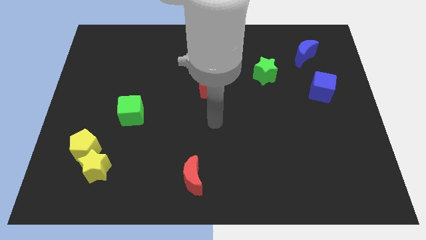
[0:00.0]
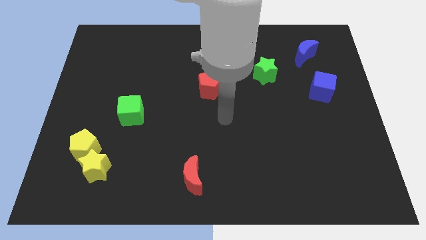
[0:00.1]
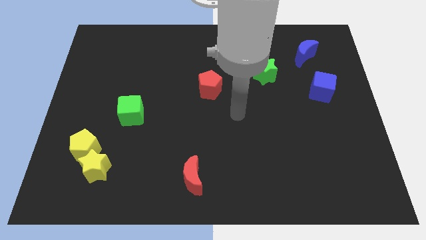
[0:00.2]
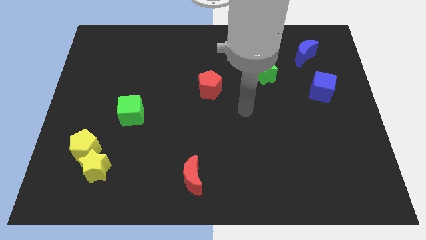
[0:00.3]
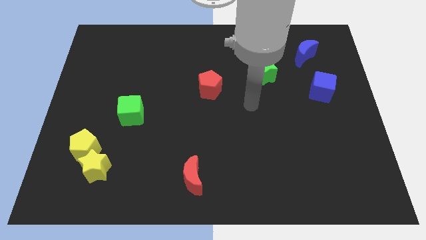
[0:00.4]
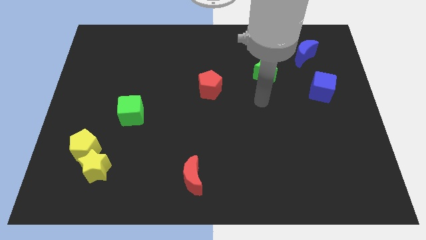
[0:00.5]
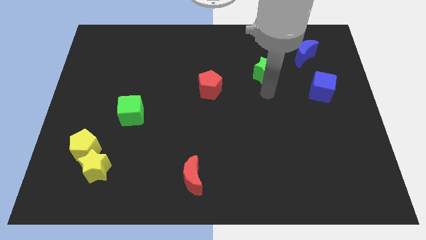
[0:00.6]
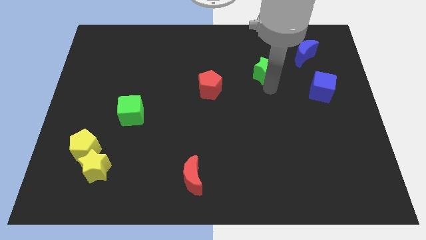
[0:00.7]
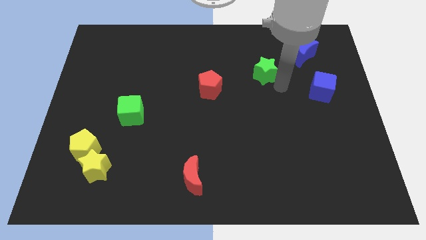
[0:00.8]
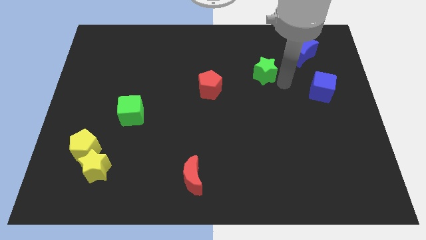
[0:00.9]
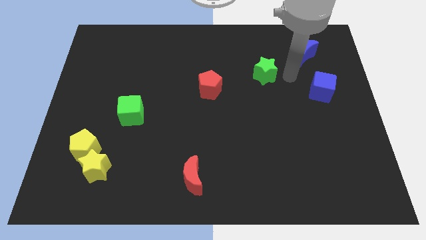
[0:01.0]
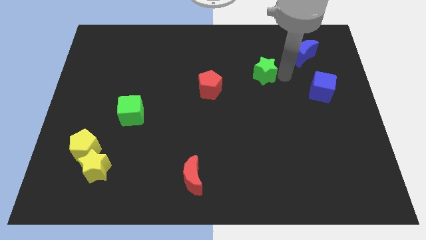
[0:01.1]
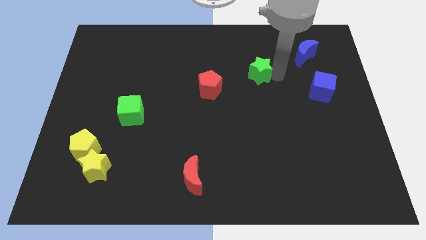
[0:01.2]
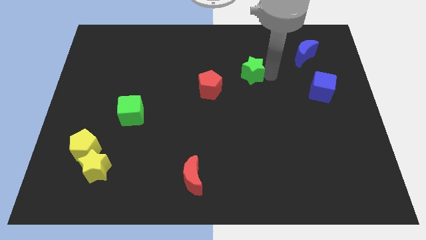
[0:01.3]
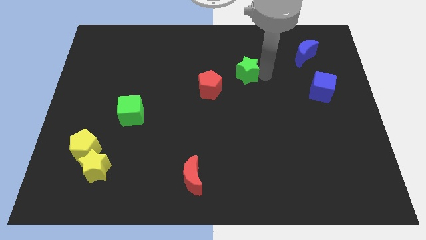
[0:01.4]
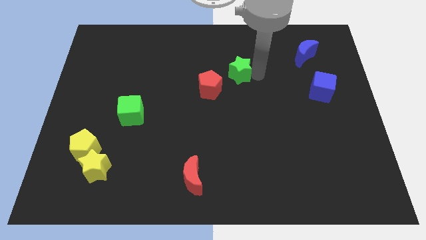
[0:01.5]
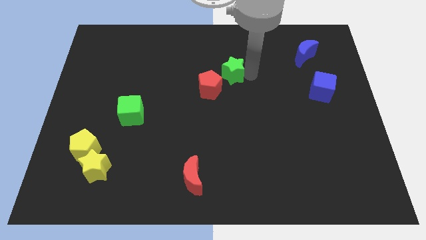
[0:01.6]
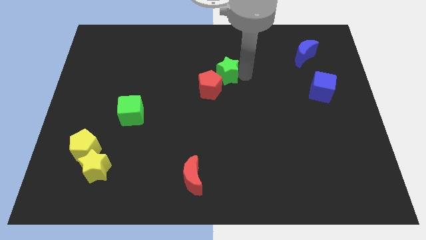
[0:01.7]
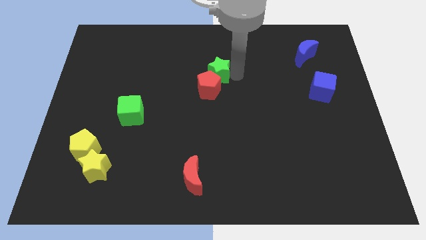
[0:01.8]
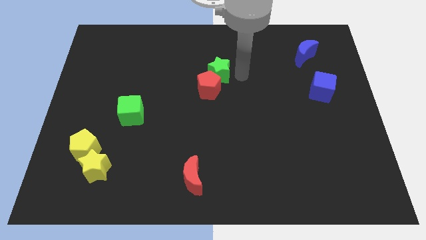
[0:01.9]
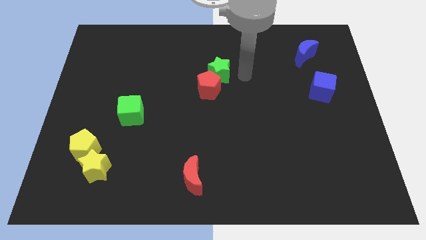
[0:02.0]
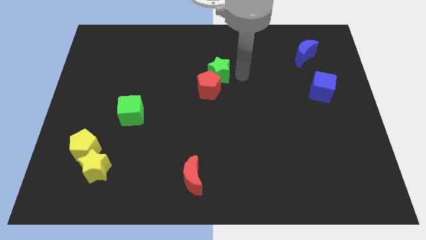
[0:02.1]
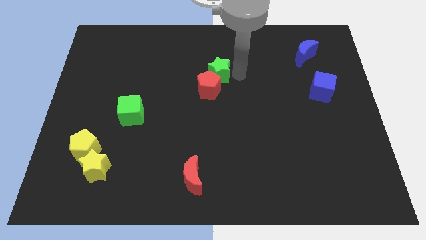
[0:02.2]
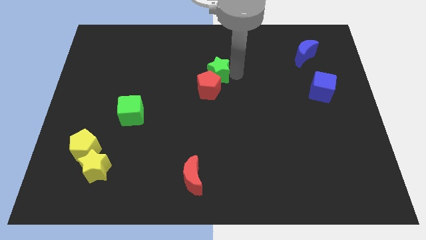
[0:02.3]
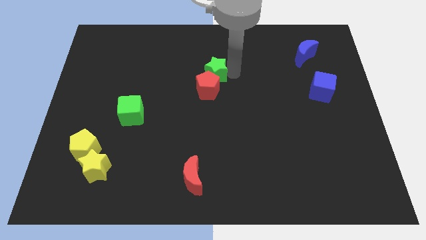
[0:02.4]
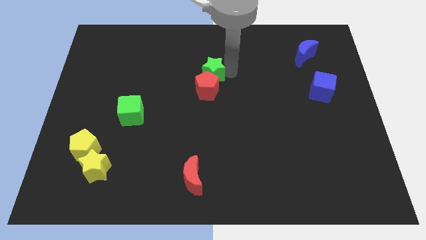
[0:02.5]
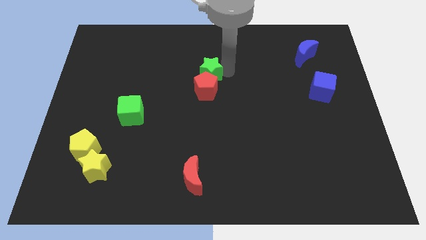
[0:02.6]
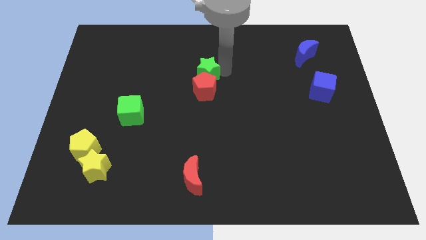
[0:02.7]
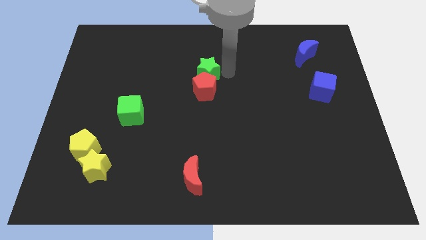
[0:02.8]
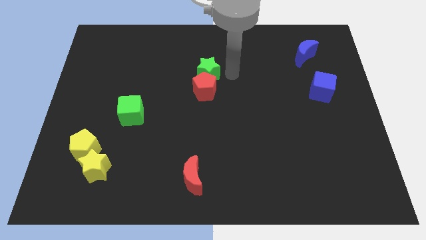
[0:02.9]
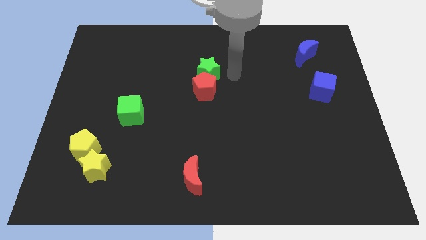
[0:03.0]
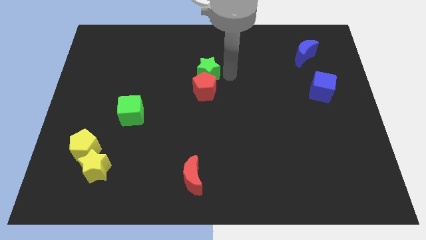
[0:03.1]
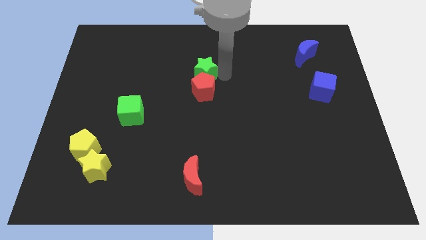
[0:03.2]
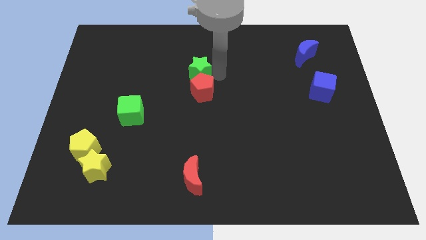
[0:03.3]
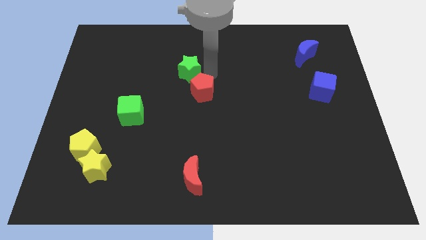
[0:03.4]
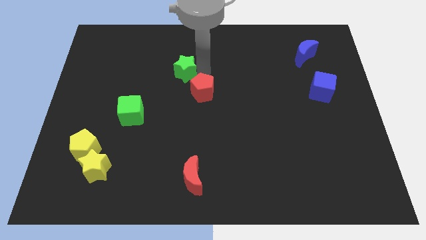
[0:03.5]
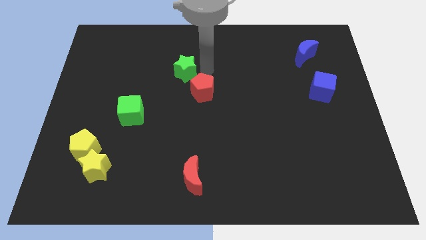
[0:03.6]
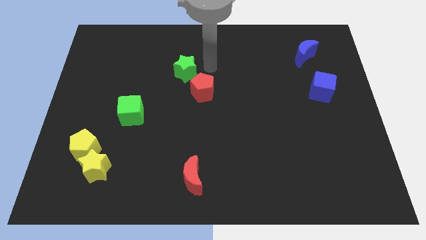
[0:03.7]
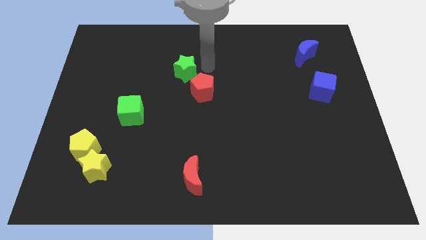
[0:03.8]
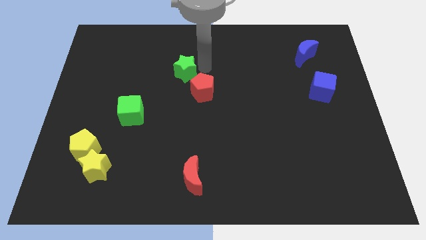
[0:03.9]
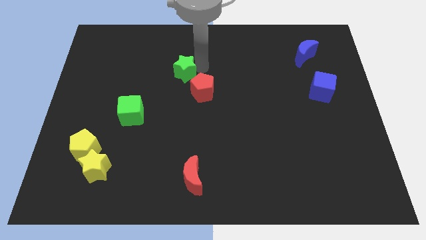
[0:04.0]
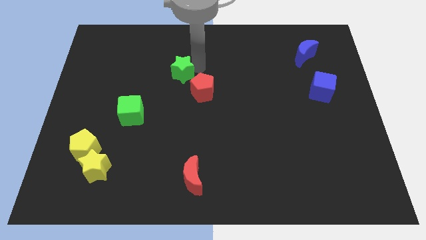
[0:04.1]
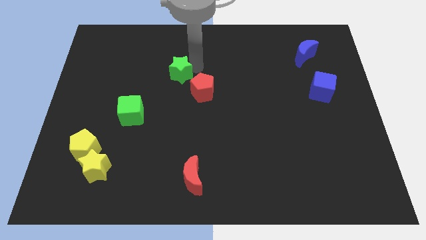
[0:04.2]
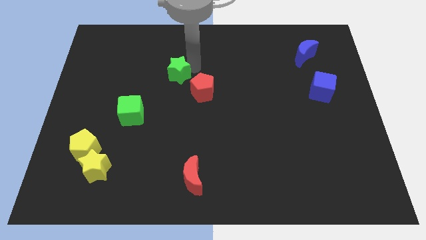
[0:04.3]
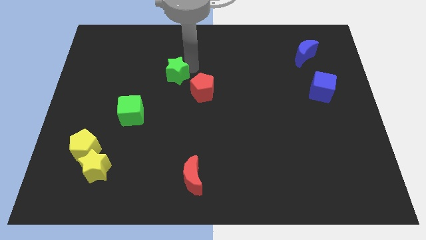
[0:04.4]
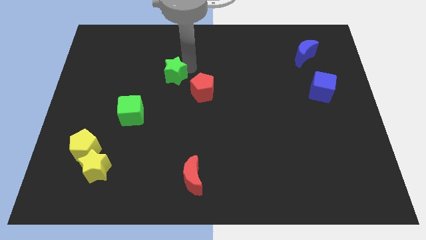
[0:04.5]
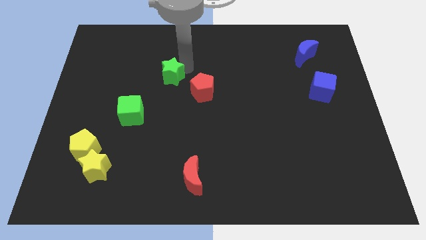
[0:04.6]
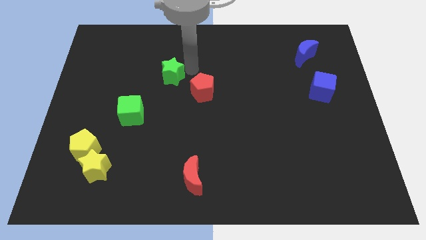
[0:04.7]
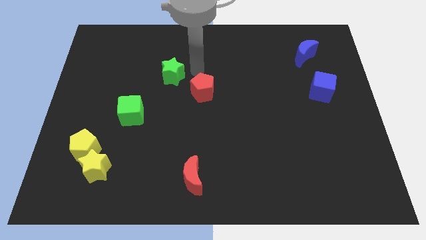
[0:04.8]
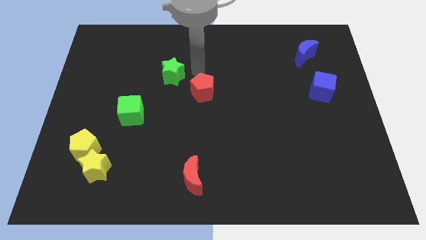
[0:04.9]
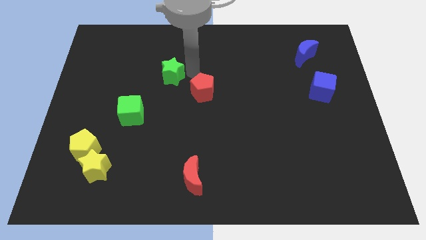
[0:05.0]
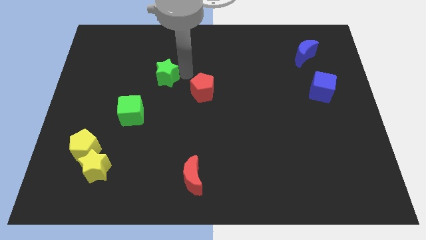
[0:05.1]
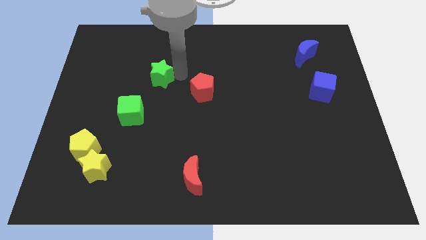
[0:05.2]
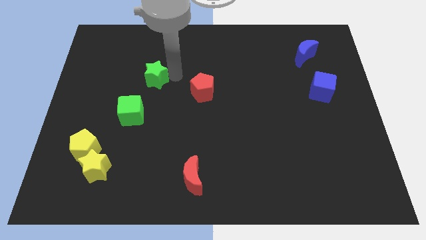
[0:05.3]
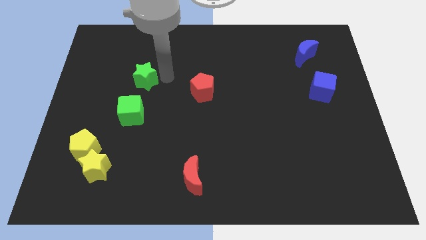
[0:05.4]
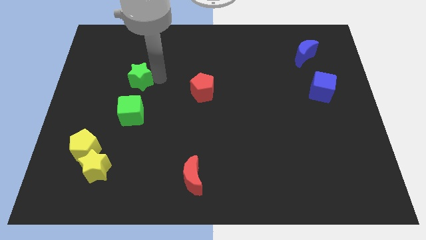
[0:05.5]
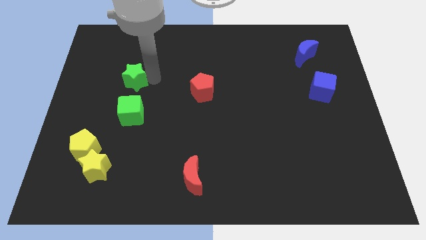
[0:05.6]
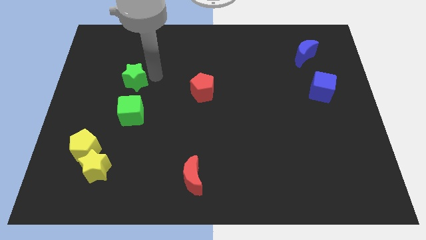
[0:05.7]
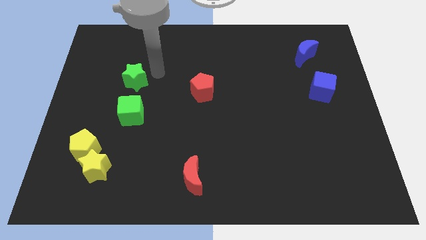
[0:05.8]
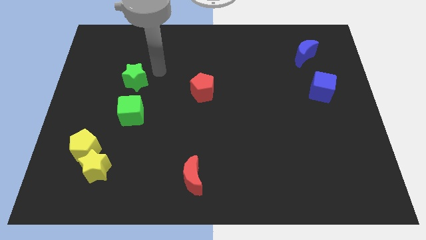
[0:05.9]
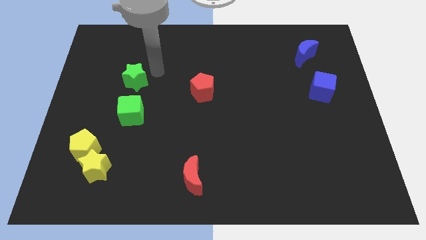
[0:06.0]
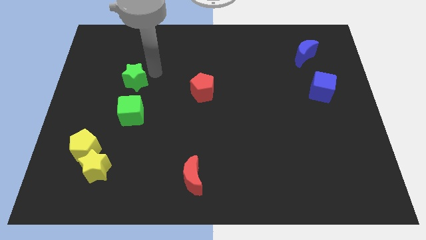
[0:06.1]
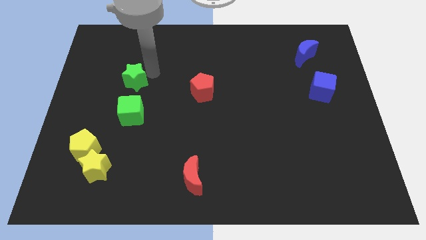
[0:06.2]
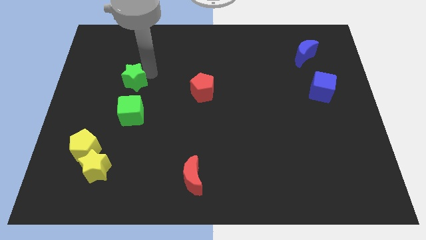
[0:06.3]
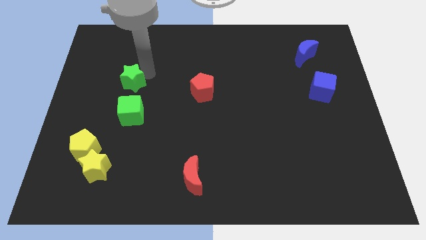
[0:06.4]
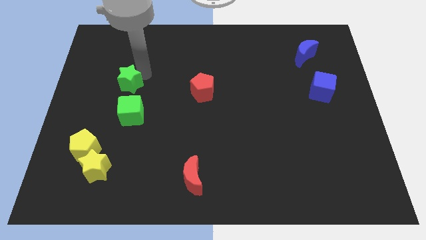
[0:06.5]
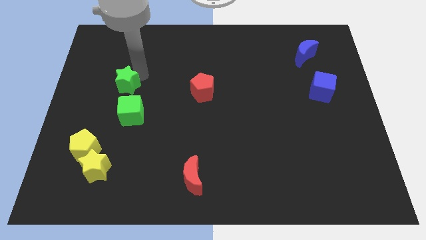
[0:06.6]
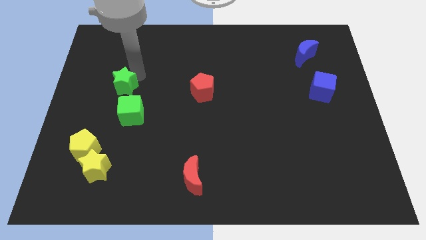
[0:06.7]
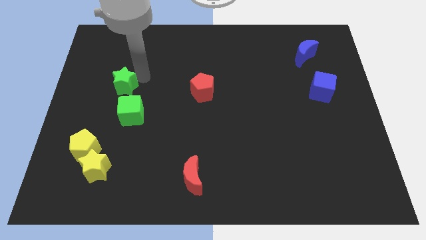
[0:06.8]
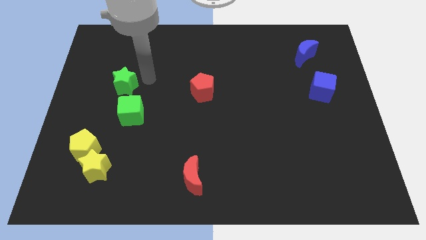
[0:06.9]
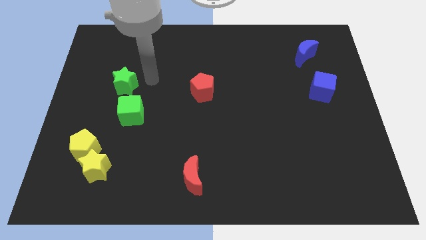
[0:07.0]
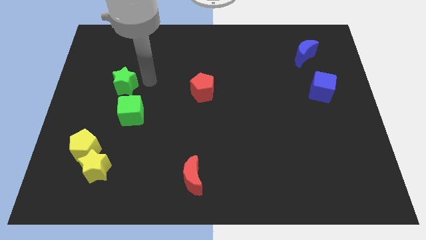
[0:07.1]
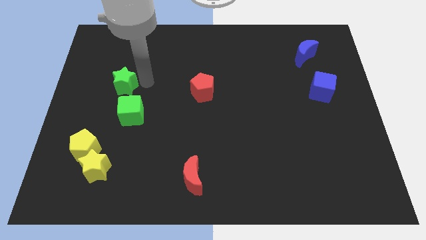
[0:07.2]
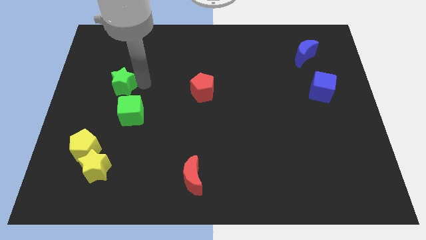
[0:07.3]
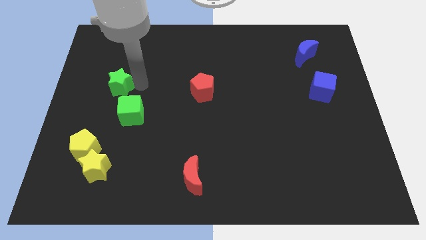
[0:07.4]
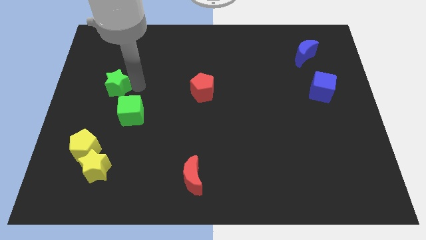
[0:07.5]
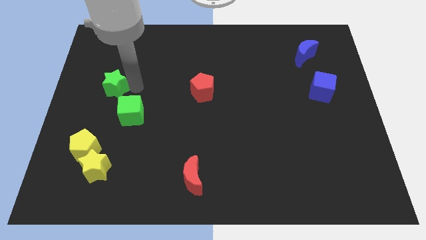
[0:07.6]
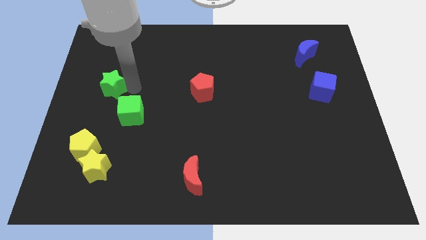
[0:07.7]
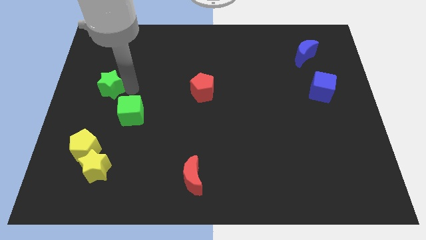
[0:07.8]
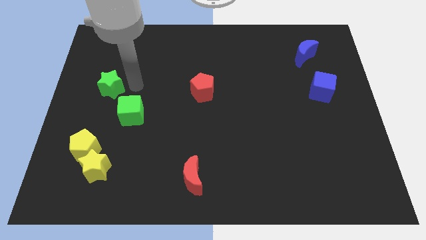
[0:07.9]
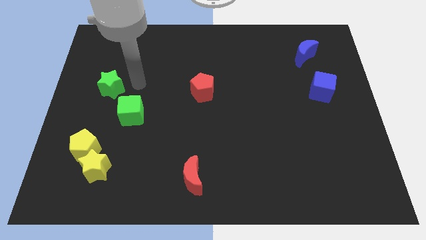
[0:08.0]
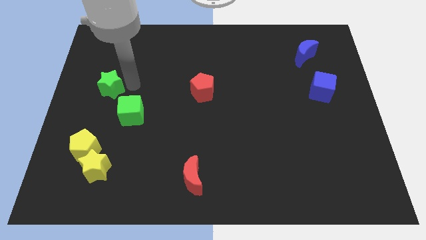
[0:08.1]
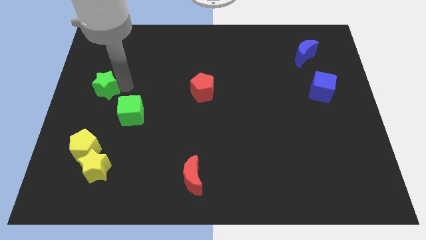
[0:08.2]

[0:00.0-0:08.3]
move the green star to the center left
